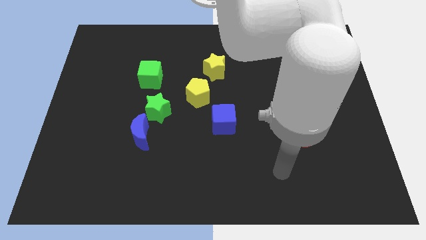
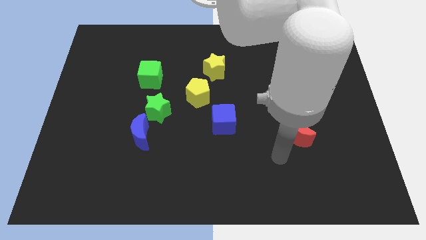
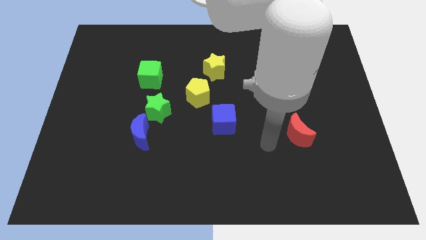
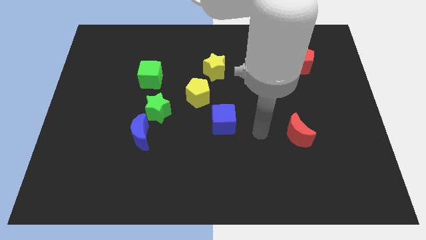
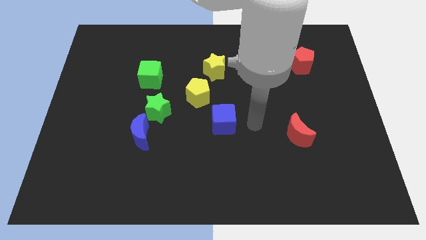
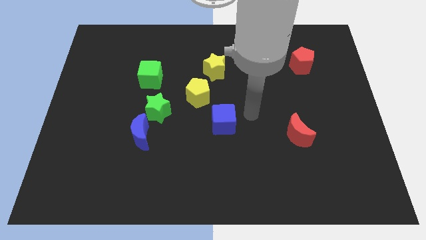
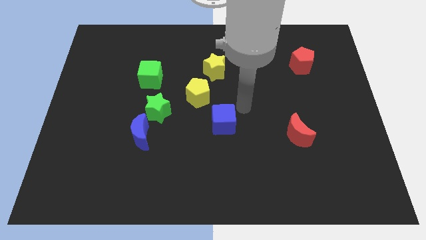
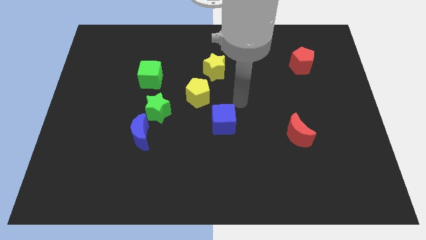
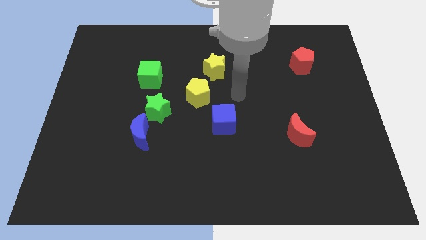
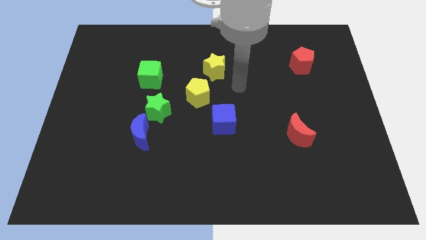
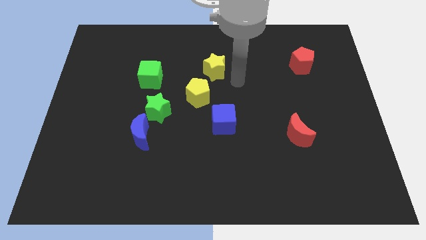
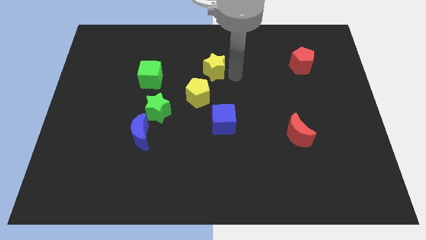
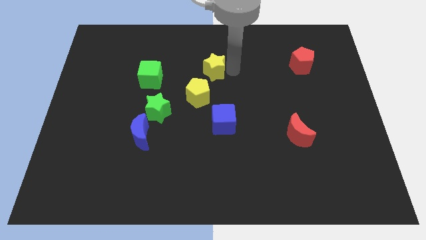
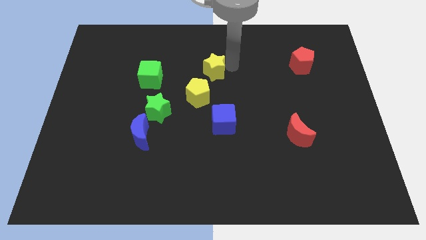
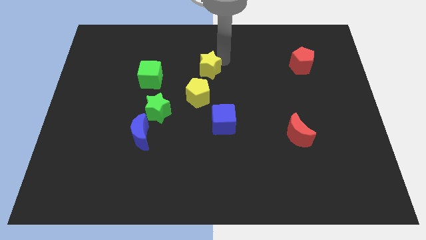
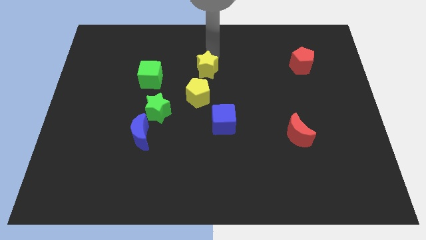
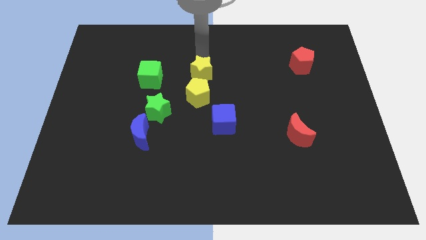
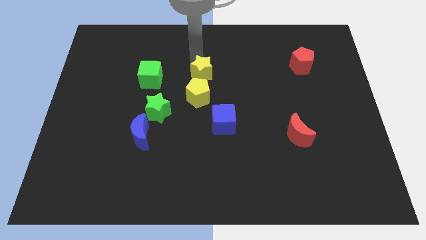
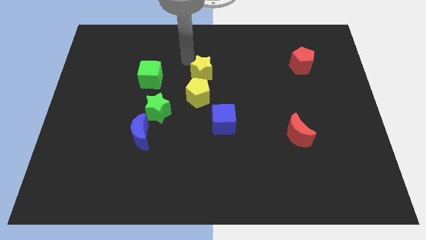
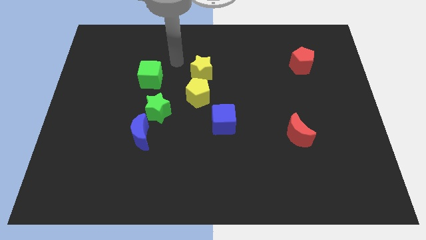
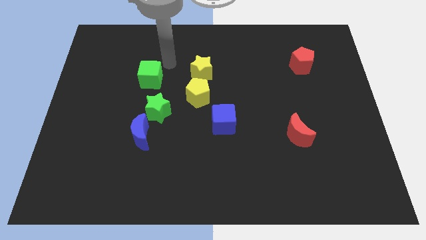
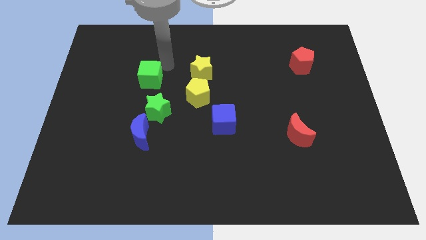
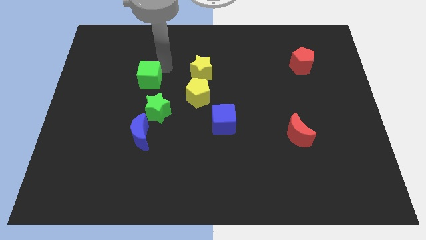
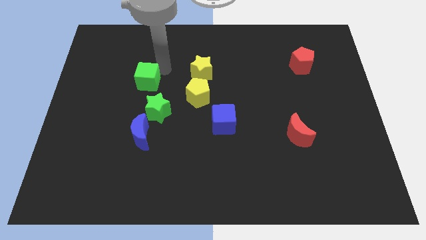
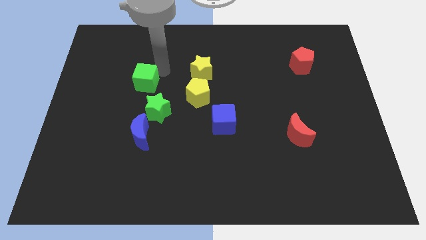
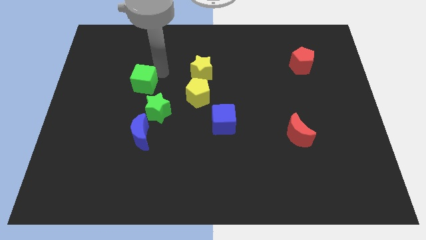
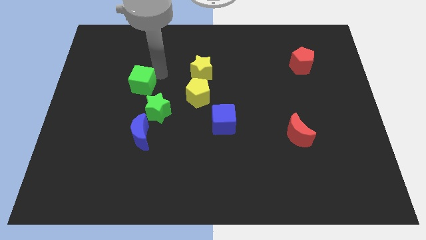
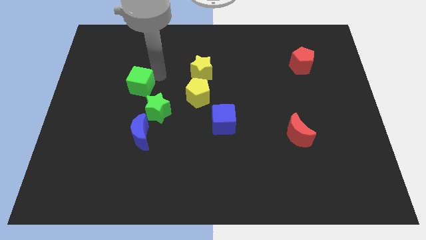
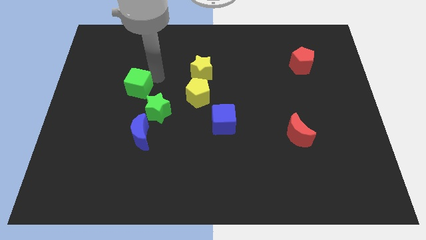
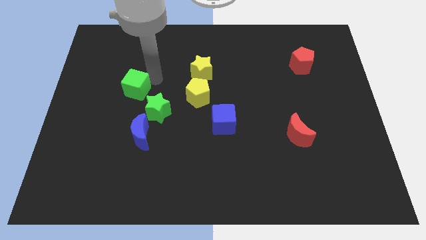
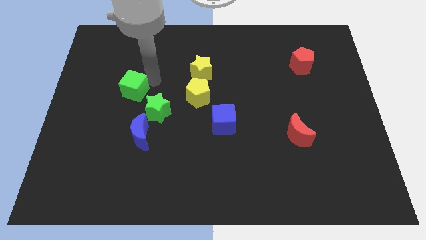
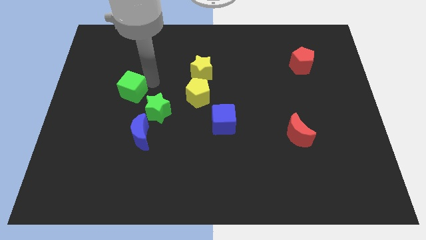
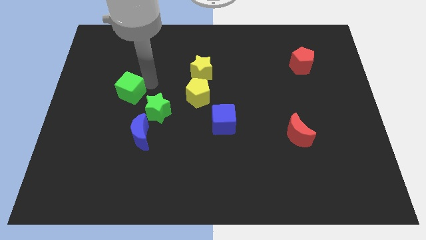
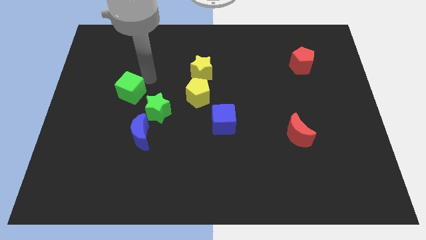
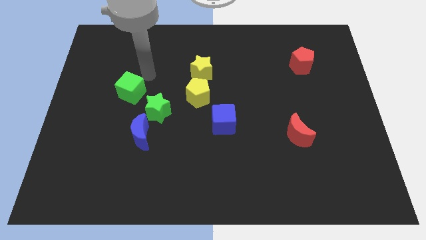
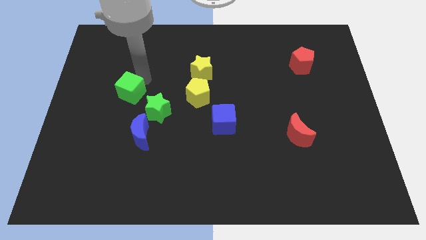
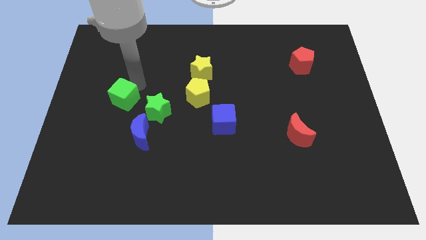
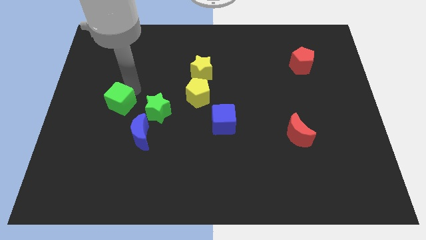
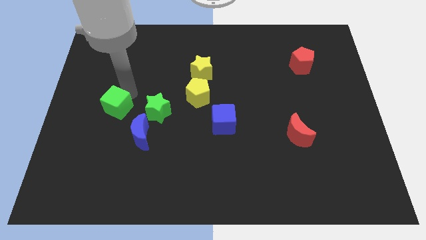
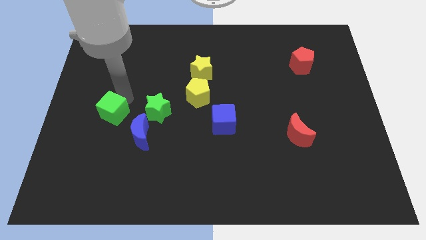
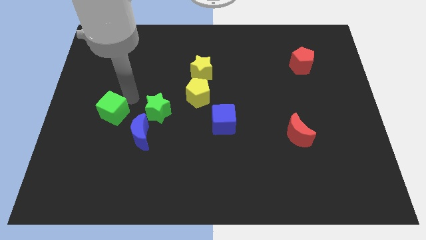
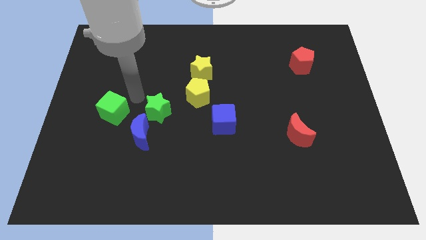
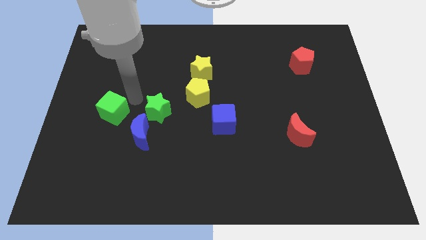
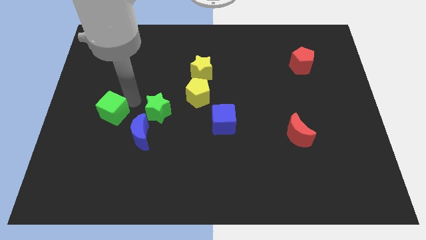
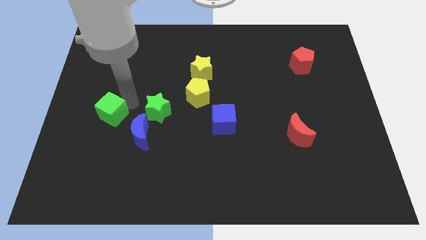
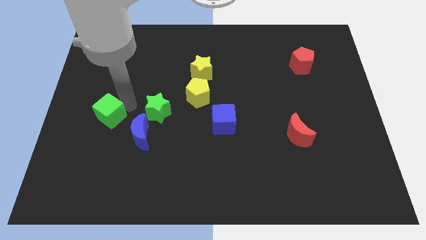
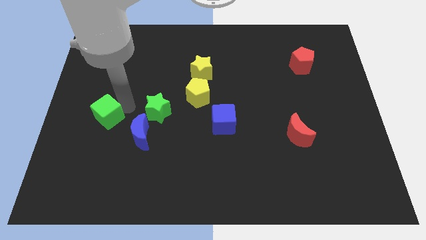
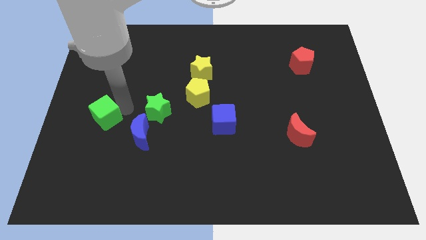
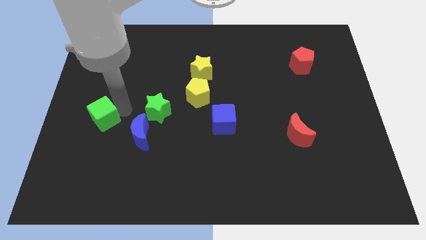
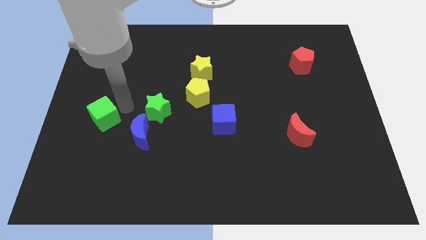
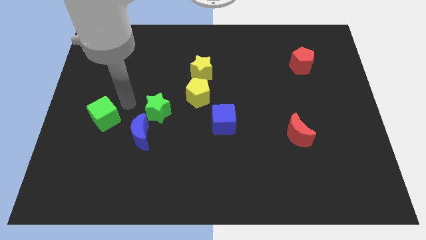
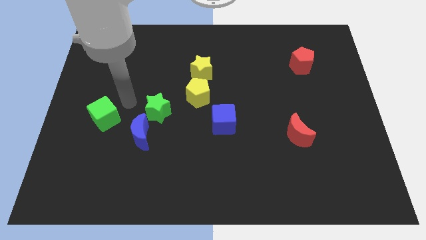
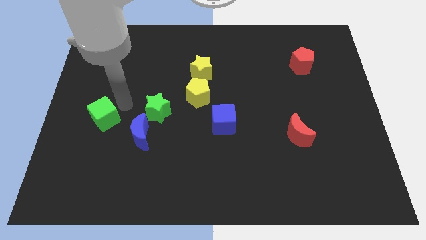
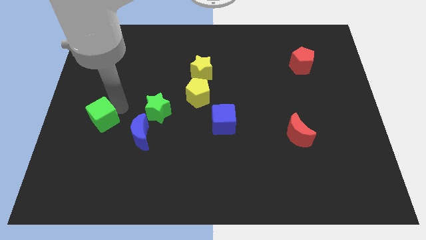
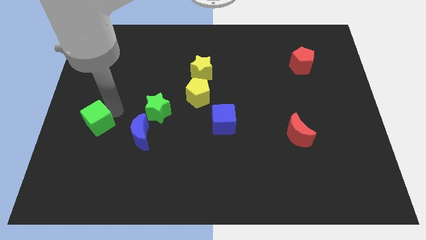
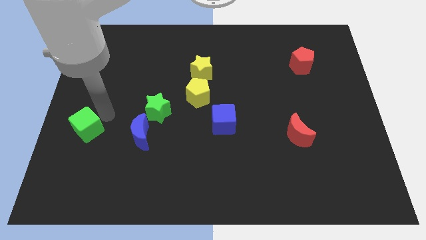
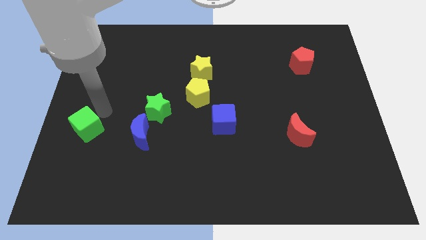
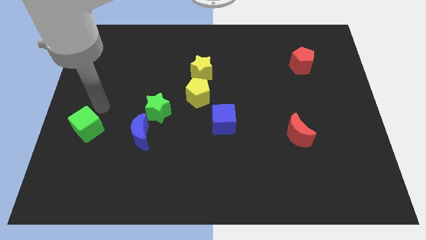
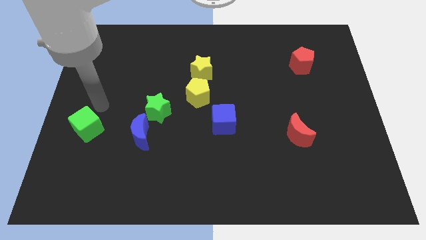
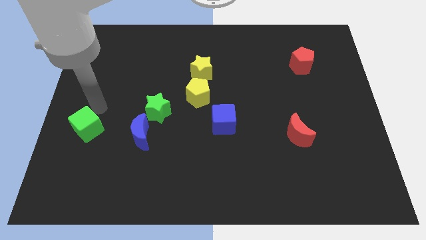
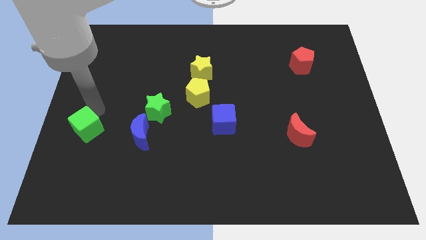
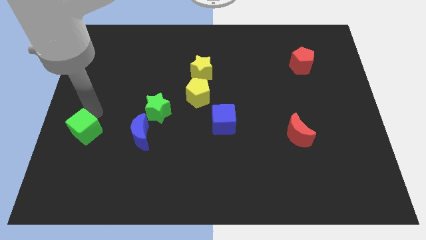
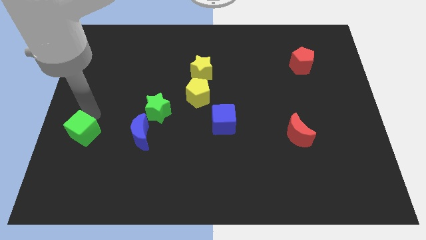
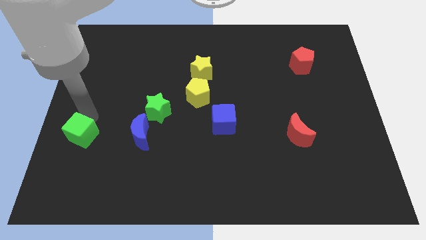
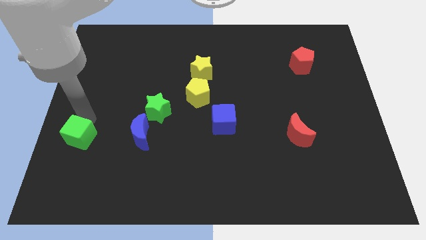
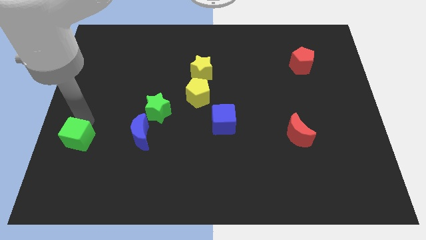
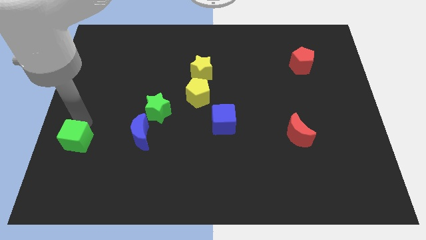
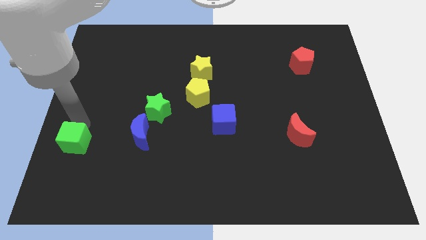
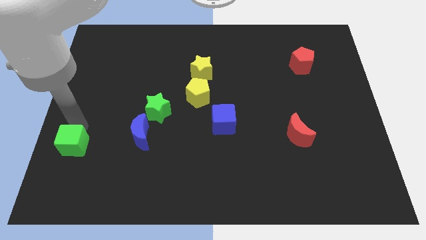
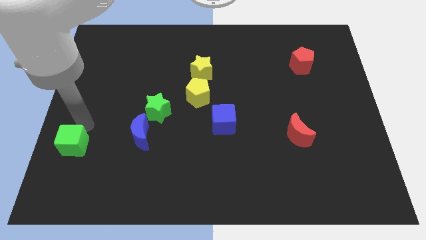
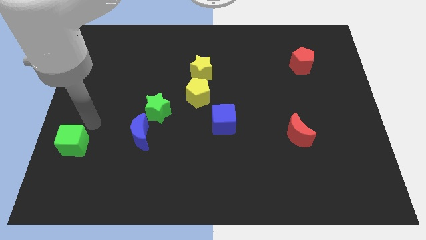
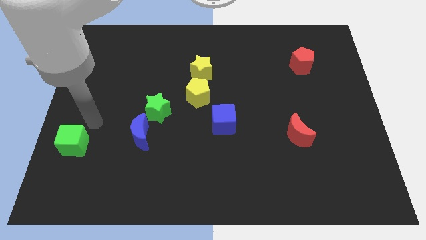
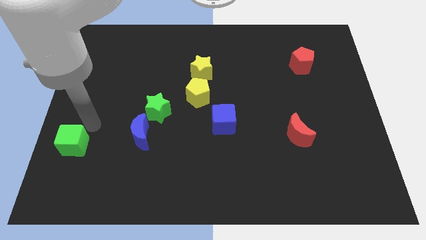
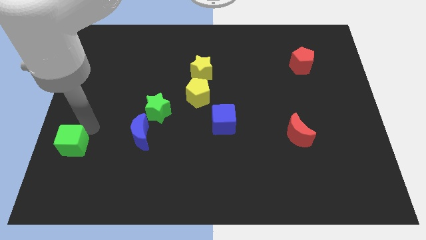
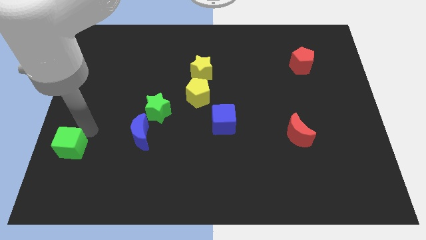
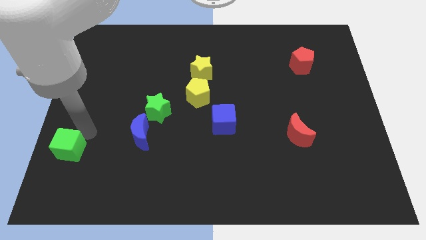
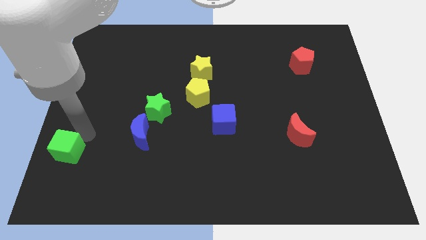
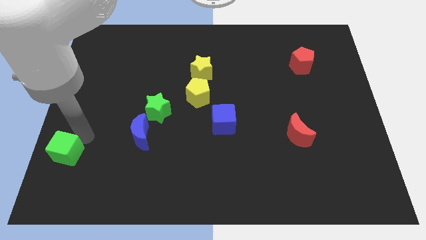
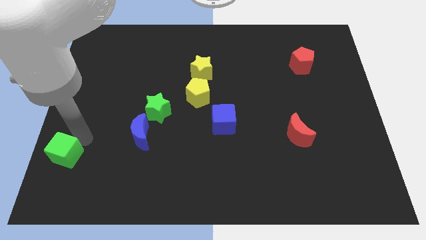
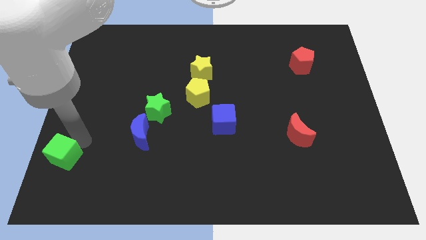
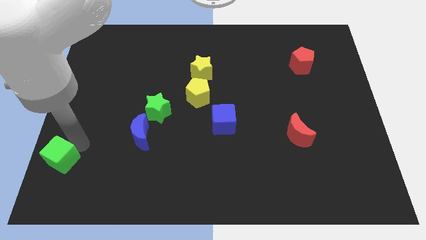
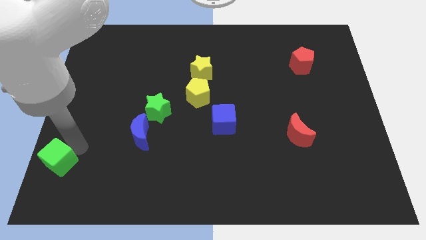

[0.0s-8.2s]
move the green cube to the bottom left corner
